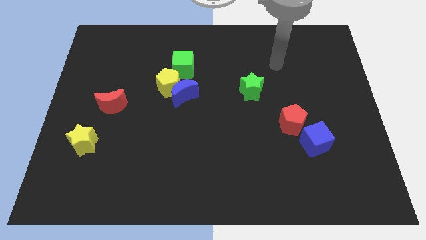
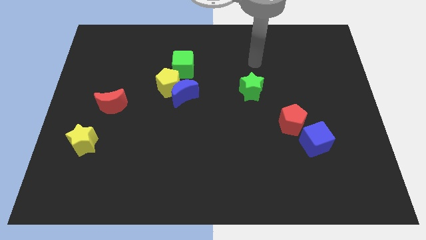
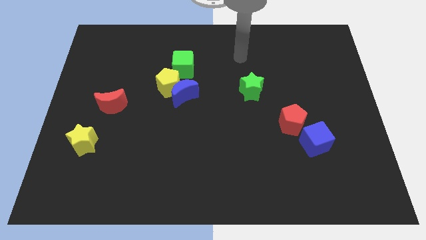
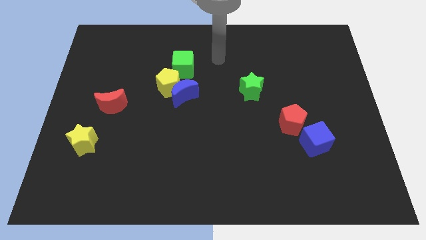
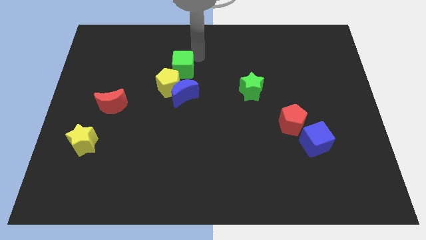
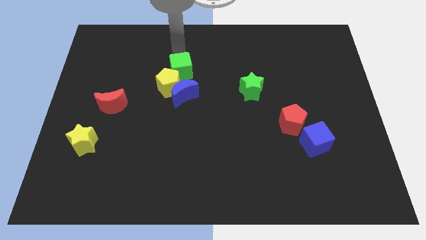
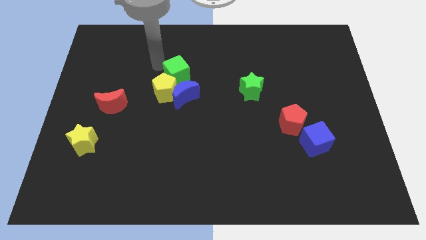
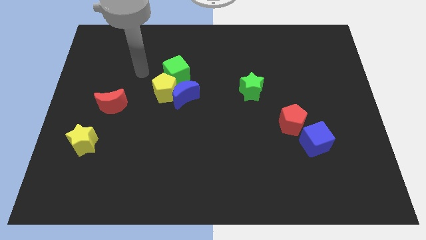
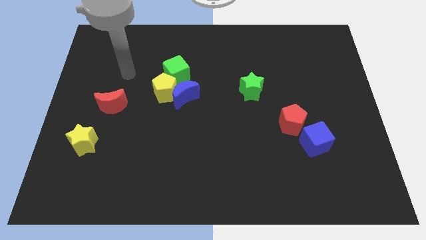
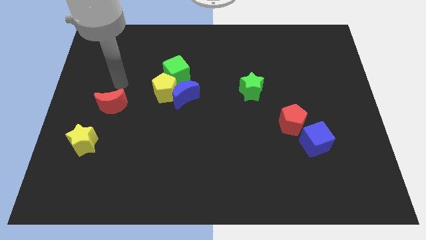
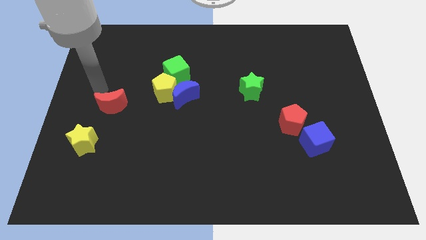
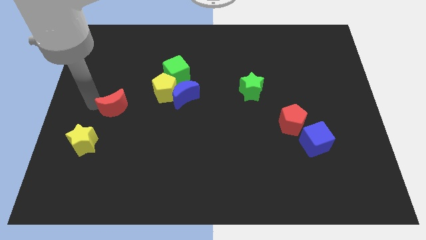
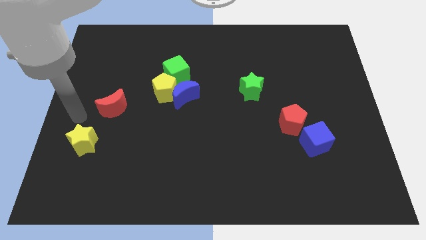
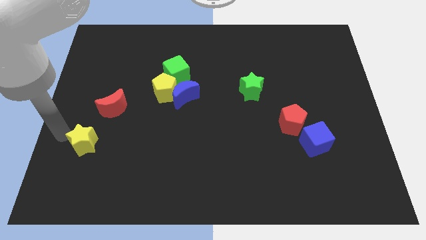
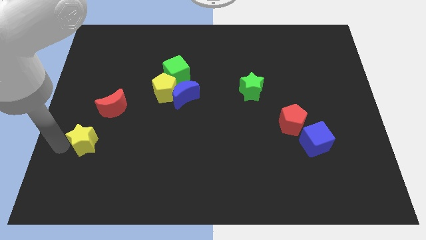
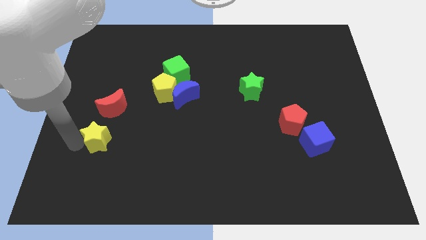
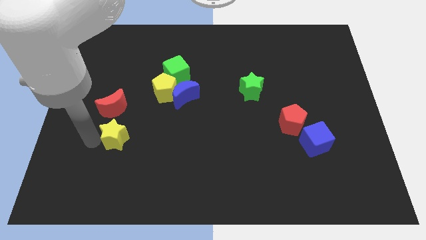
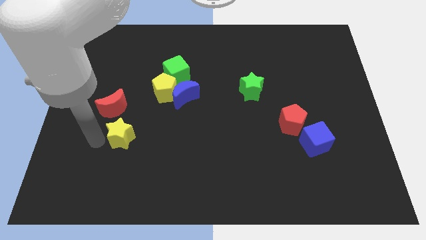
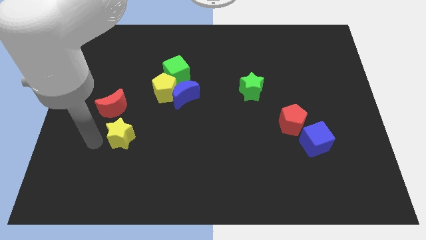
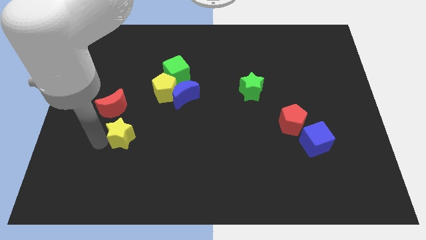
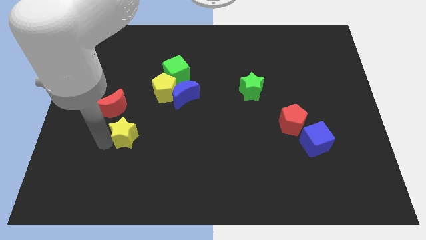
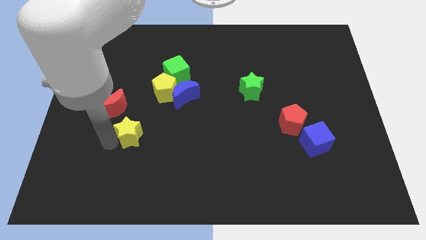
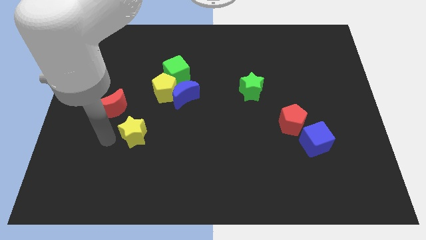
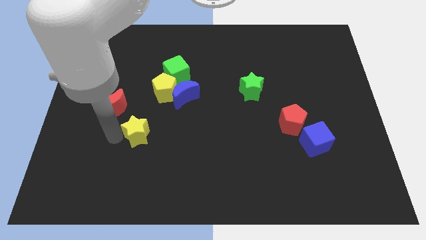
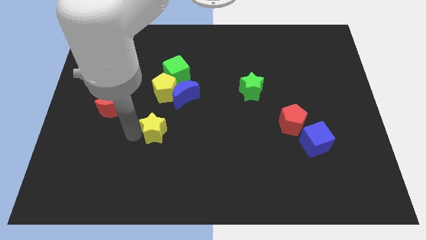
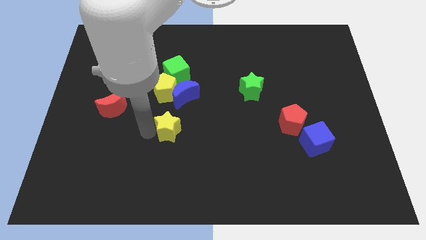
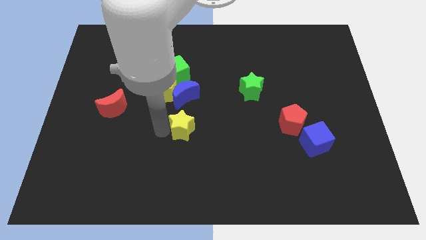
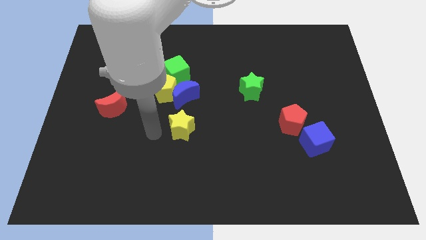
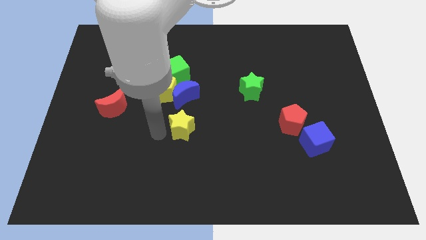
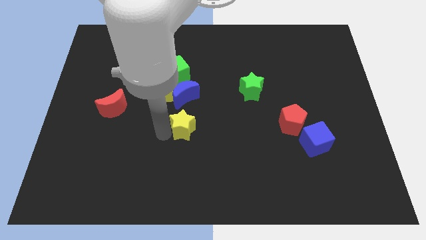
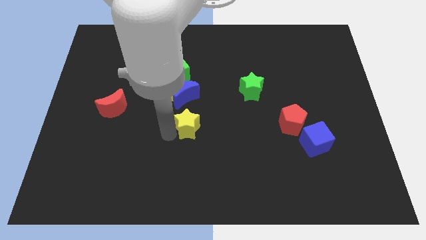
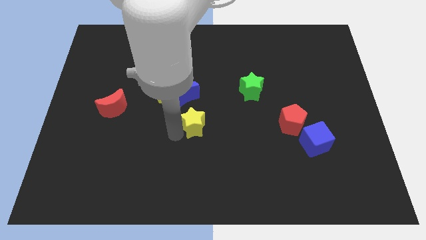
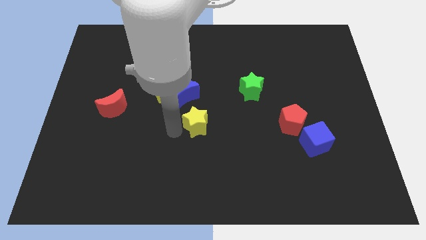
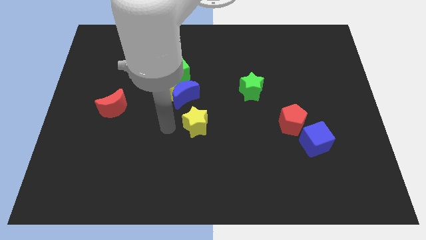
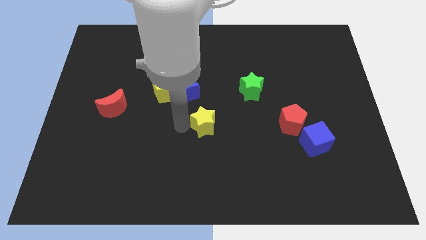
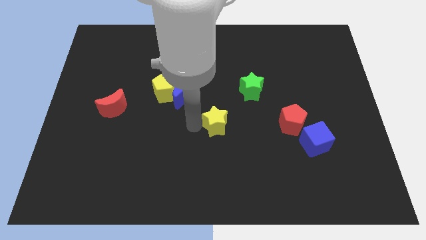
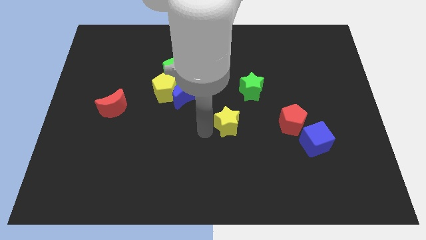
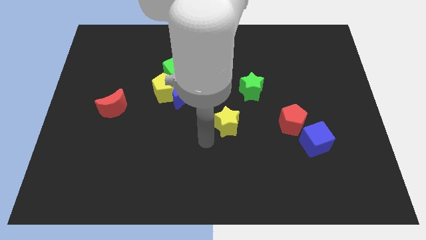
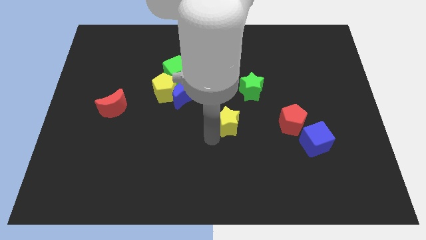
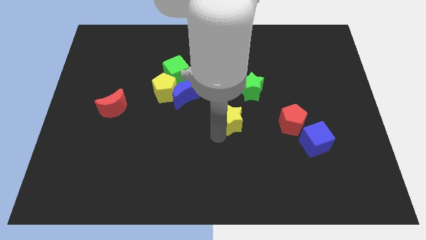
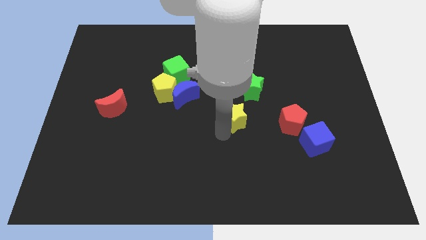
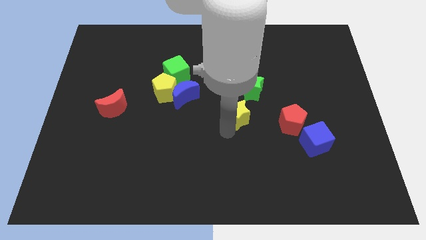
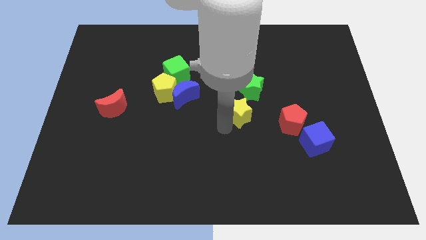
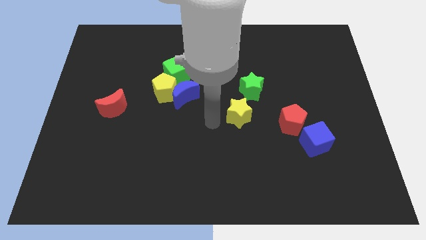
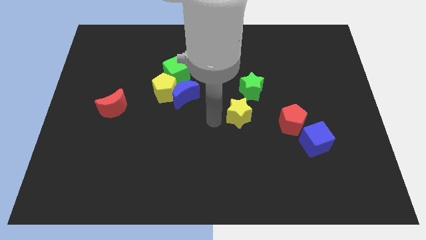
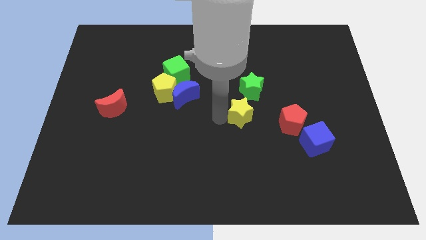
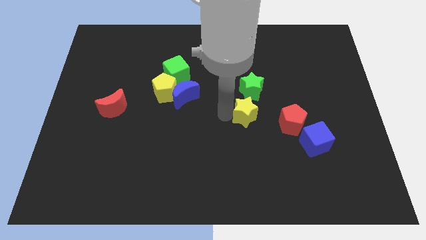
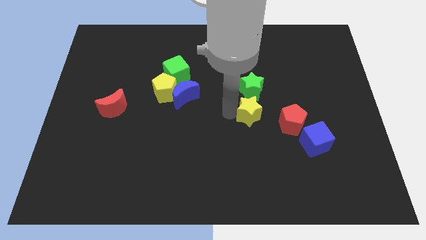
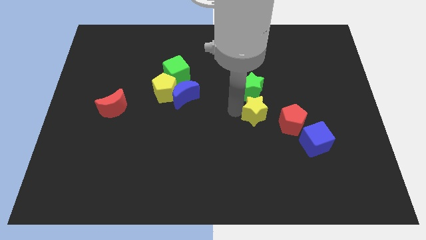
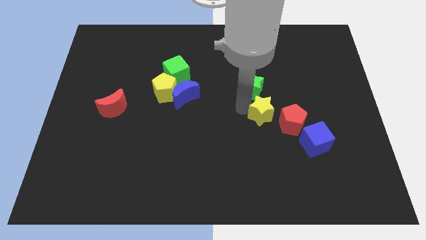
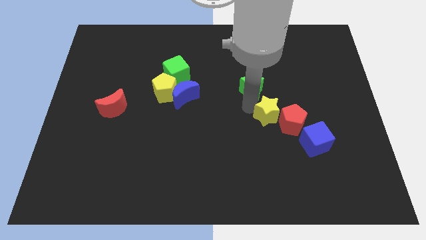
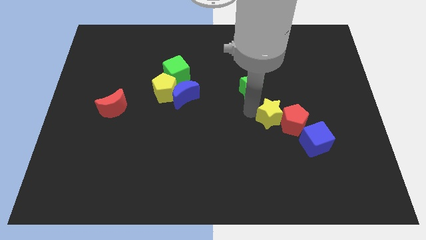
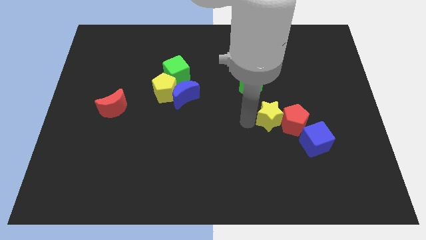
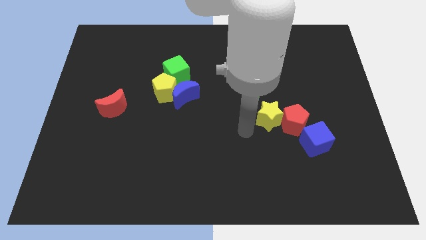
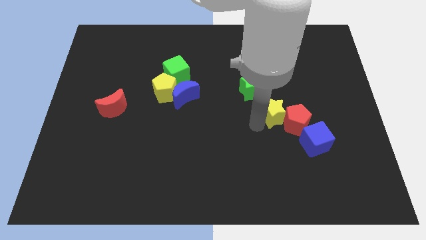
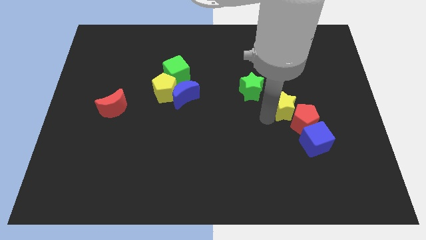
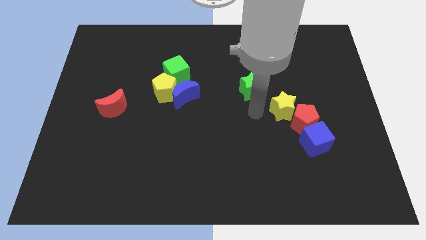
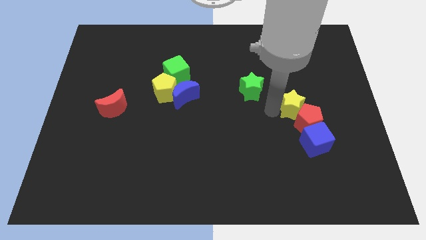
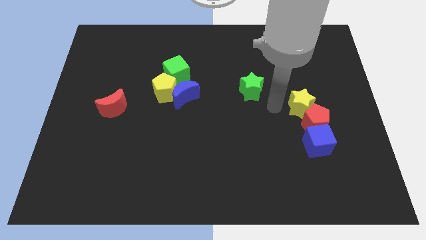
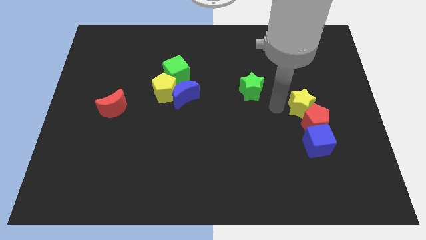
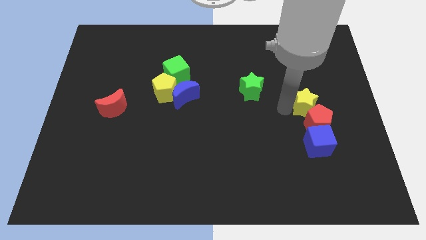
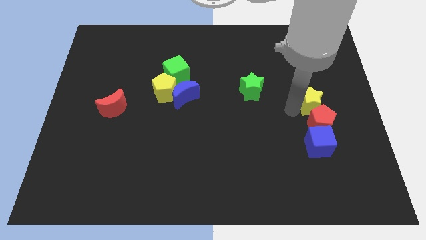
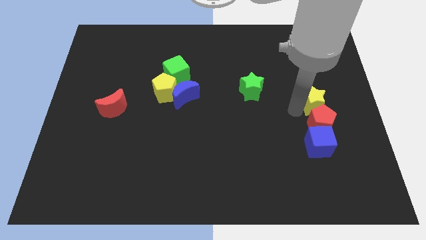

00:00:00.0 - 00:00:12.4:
put the yellow star diagonally up and to the right of the red pentagon

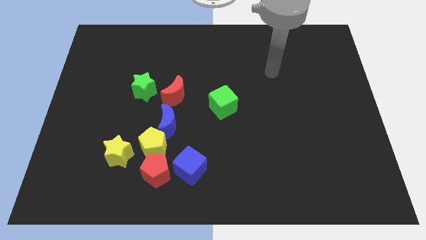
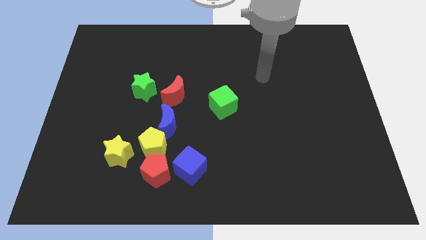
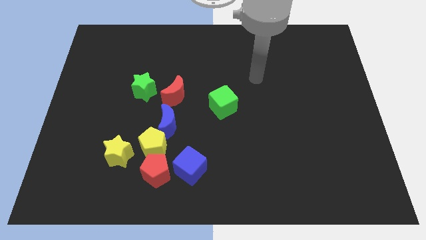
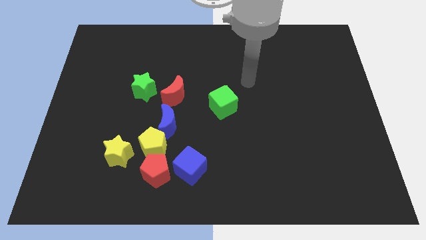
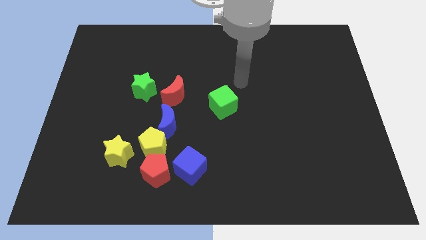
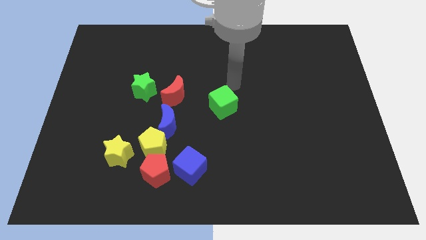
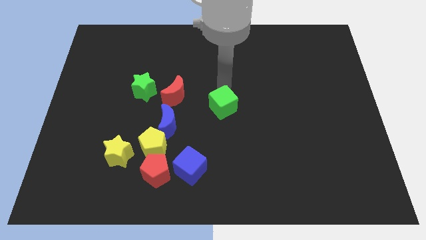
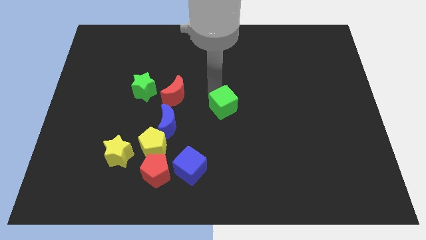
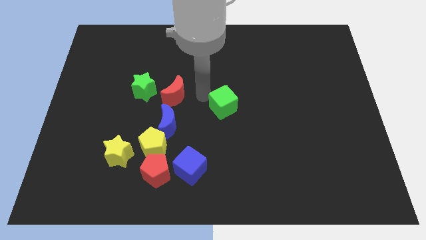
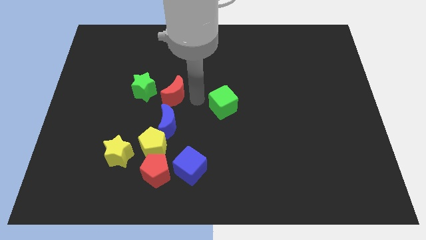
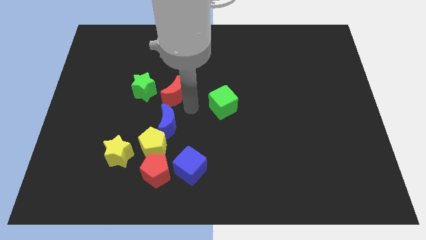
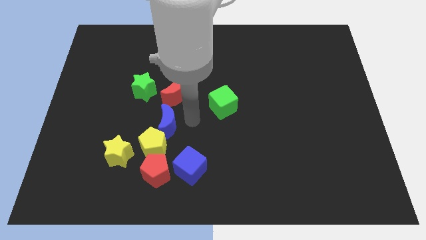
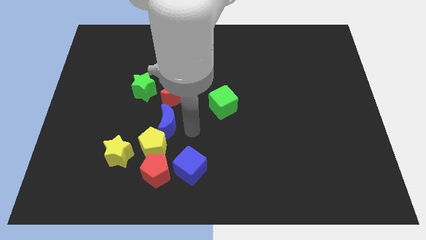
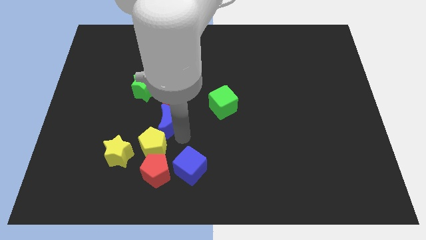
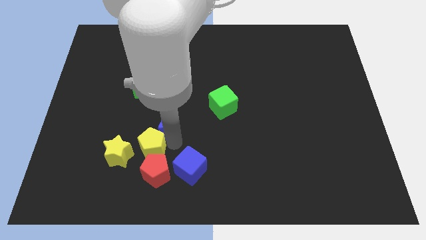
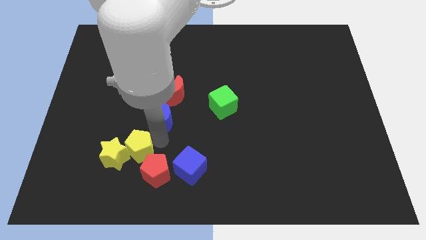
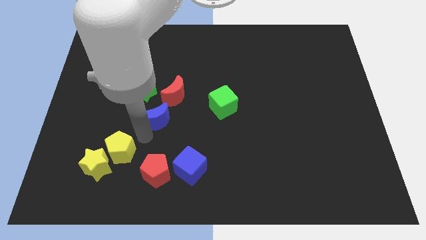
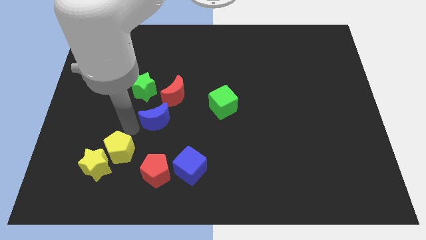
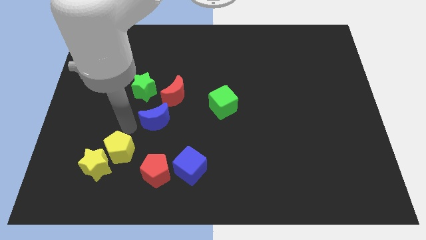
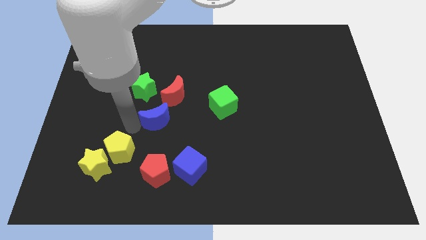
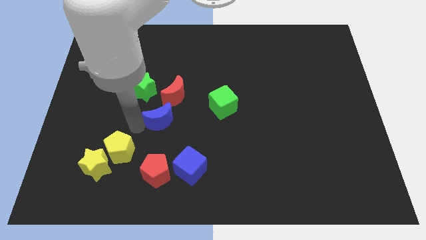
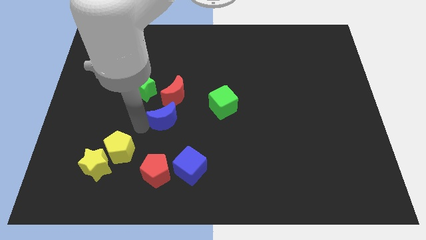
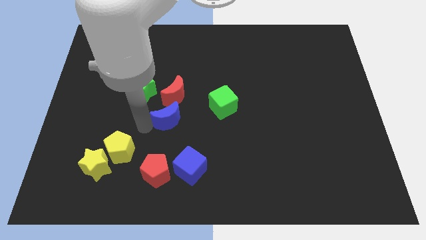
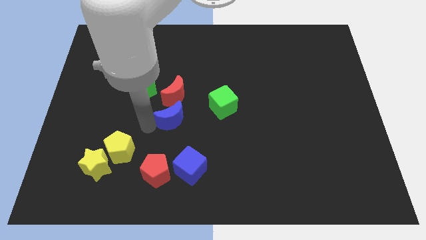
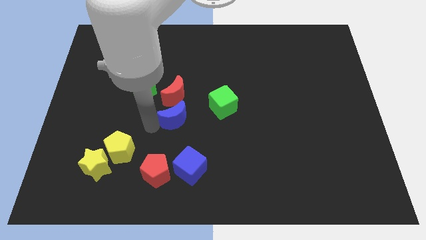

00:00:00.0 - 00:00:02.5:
slide the blue moon diagonally down and to the right of the red moon
